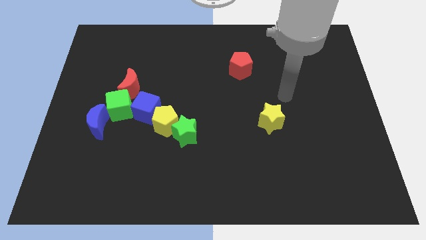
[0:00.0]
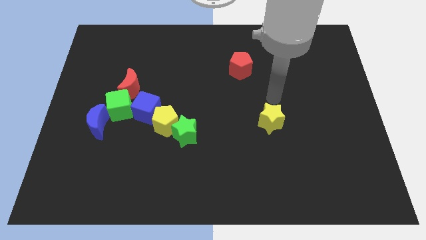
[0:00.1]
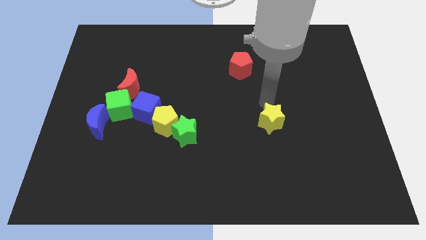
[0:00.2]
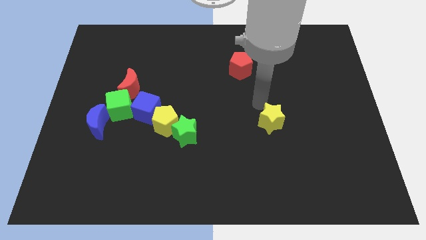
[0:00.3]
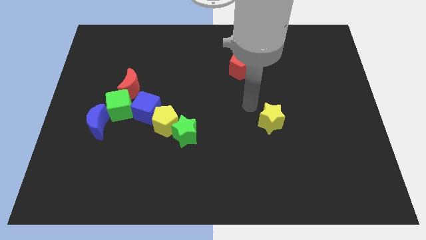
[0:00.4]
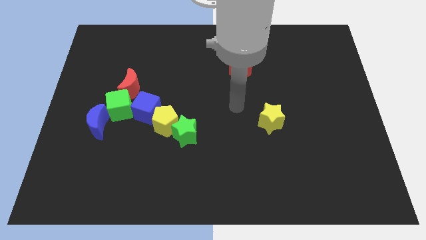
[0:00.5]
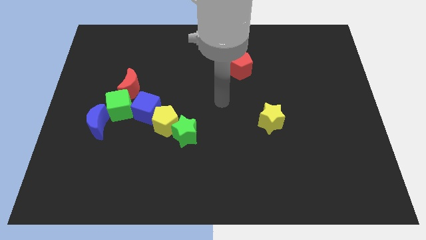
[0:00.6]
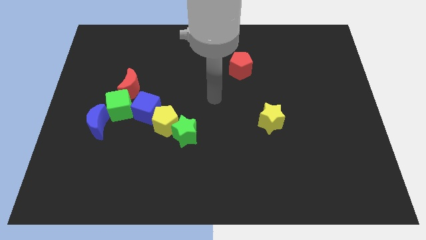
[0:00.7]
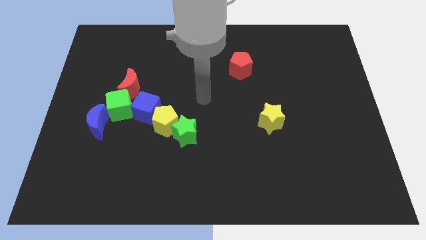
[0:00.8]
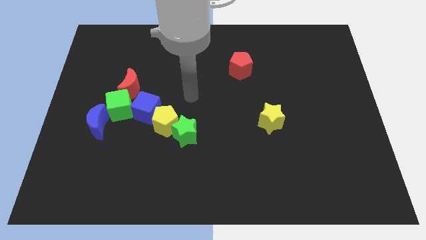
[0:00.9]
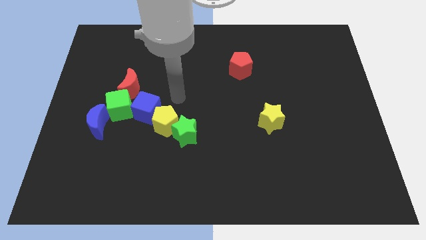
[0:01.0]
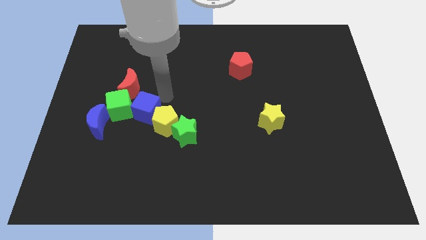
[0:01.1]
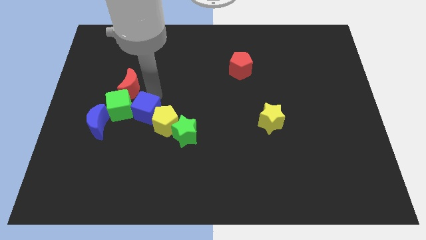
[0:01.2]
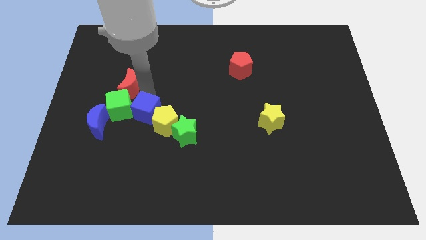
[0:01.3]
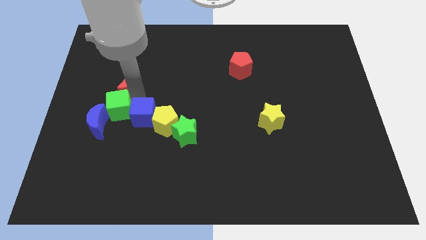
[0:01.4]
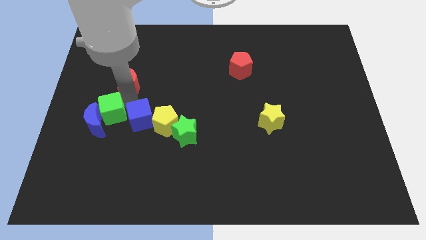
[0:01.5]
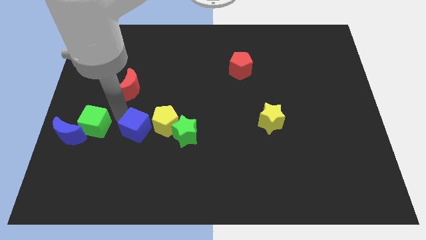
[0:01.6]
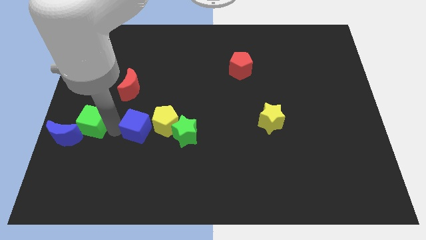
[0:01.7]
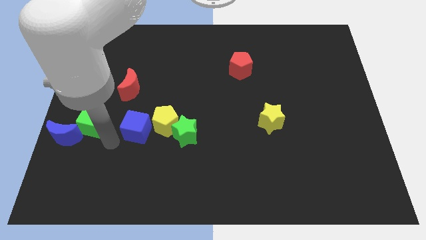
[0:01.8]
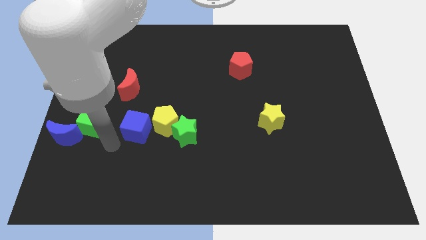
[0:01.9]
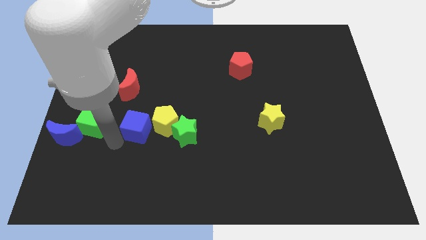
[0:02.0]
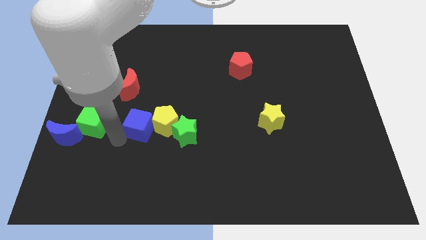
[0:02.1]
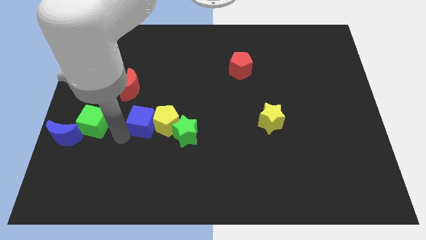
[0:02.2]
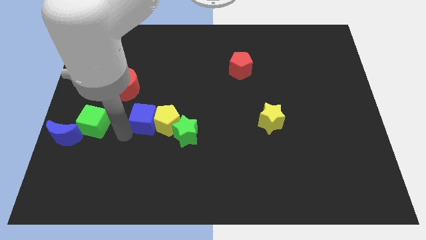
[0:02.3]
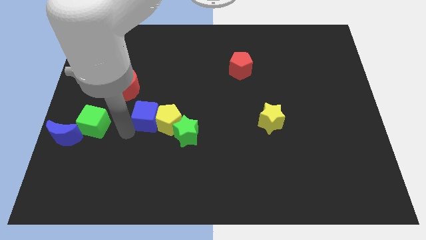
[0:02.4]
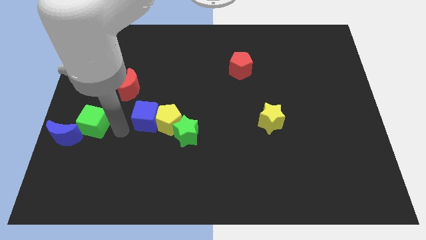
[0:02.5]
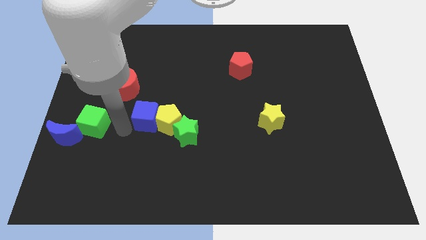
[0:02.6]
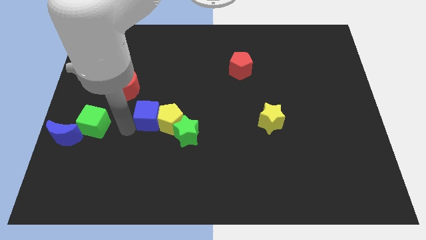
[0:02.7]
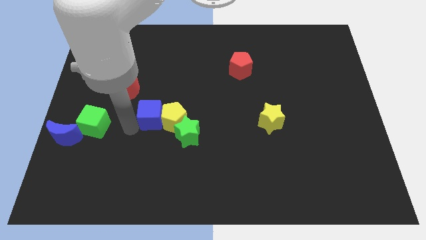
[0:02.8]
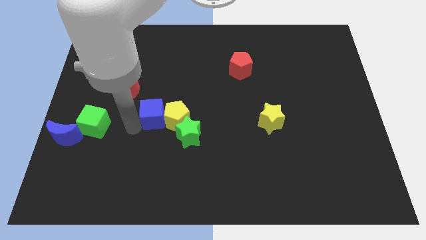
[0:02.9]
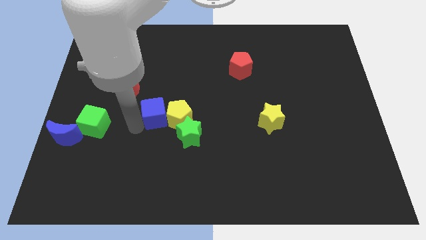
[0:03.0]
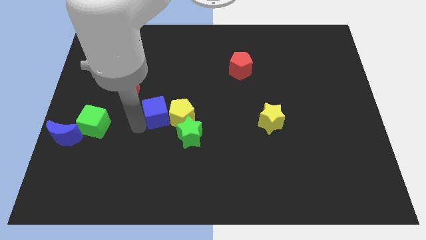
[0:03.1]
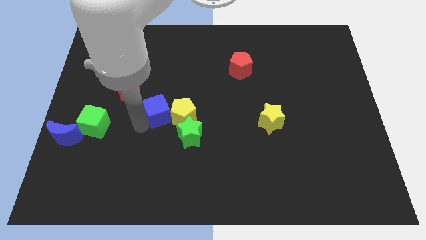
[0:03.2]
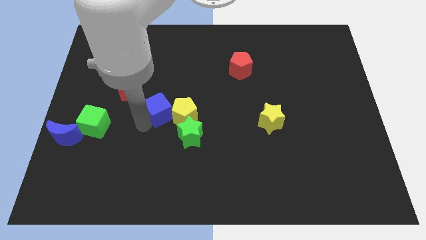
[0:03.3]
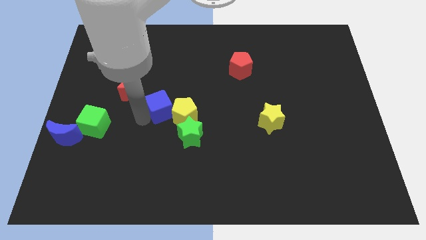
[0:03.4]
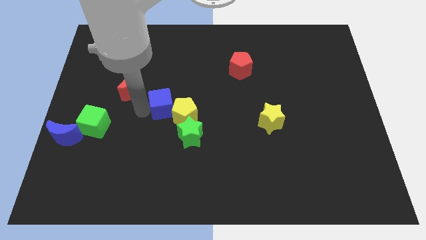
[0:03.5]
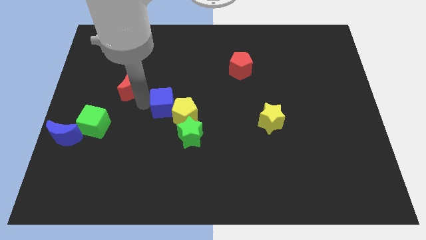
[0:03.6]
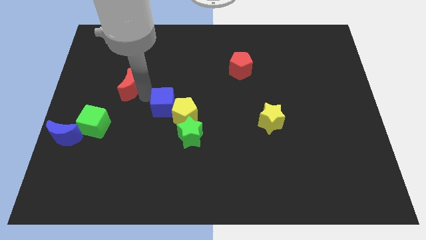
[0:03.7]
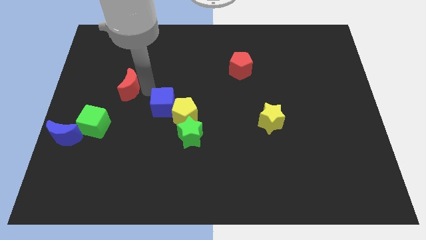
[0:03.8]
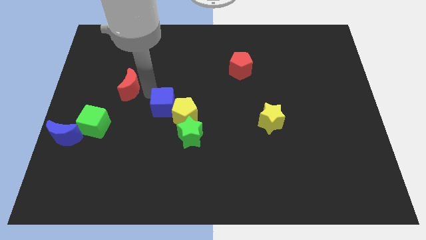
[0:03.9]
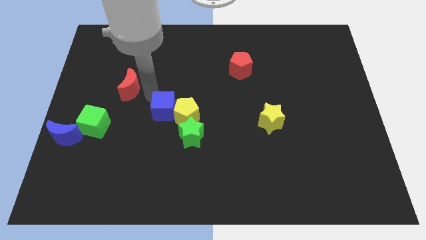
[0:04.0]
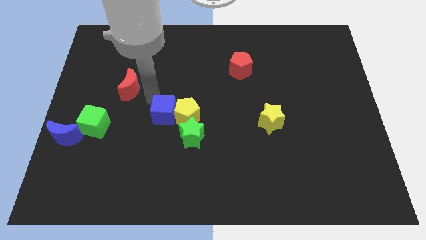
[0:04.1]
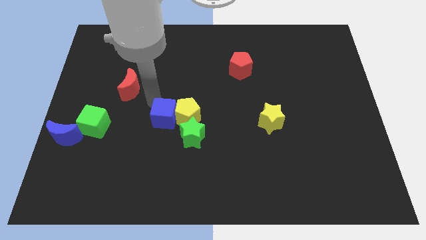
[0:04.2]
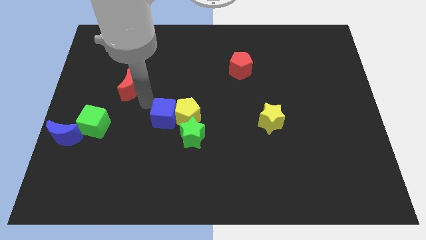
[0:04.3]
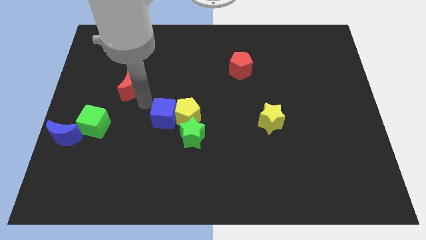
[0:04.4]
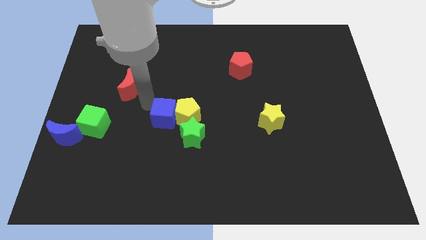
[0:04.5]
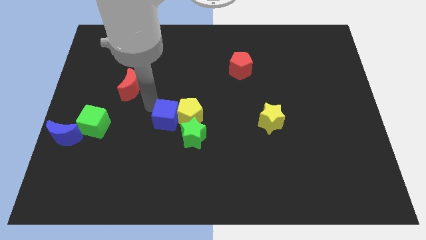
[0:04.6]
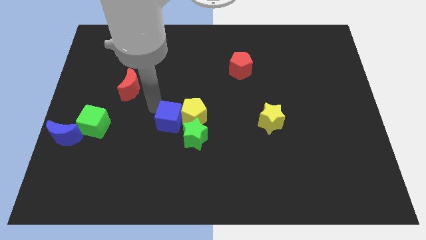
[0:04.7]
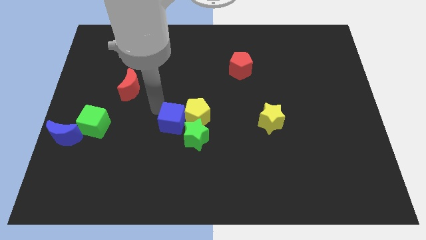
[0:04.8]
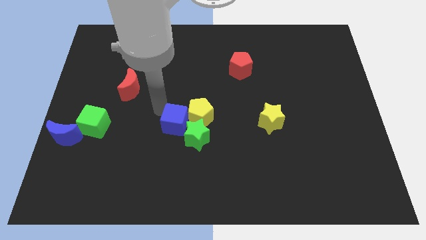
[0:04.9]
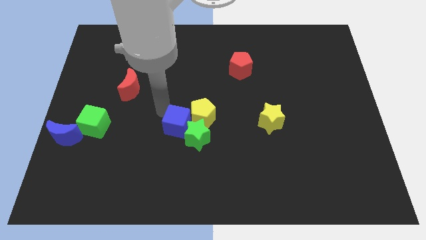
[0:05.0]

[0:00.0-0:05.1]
slide the blue cube to the green star

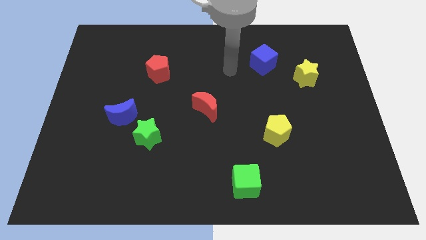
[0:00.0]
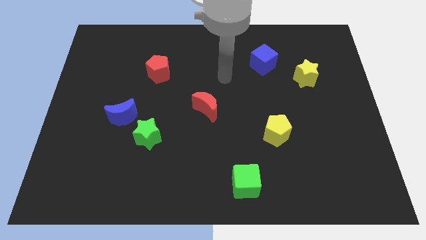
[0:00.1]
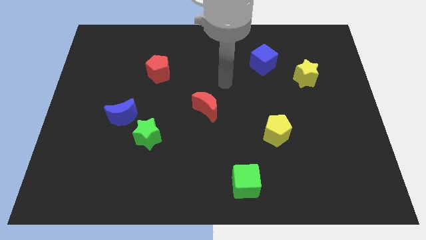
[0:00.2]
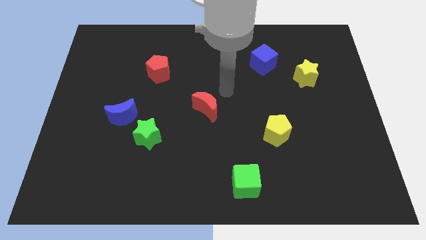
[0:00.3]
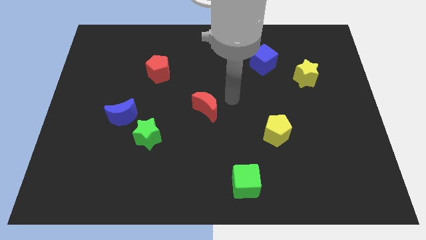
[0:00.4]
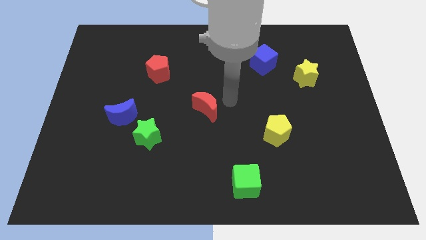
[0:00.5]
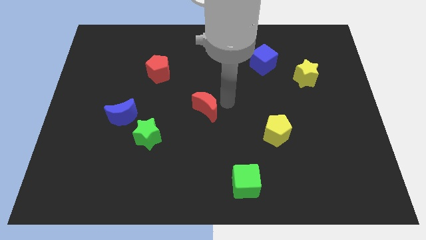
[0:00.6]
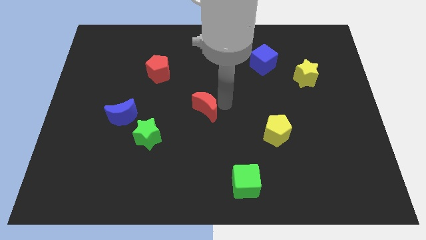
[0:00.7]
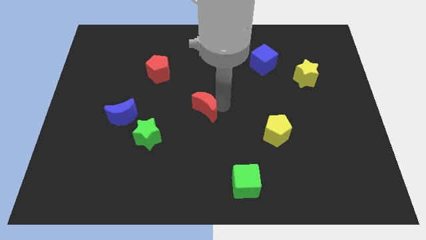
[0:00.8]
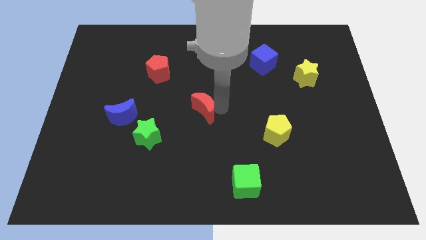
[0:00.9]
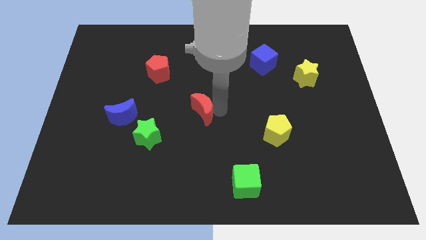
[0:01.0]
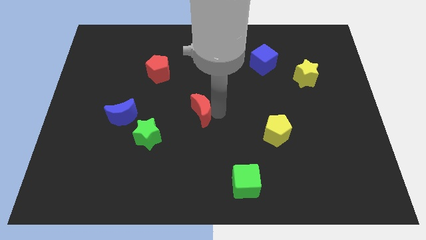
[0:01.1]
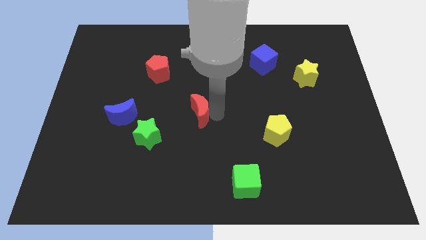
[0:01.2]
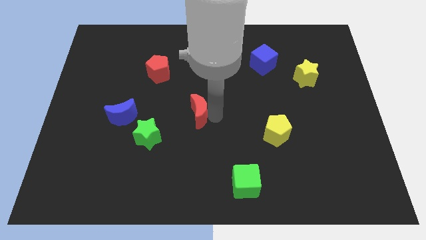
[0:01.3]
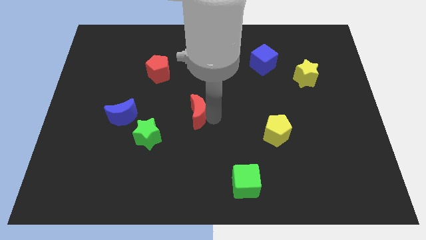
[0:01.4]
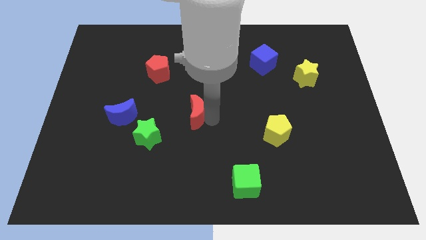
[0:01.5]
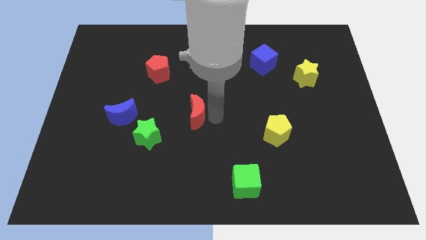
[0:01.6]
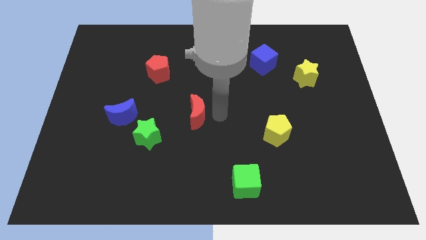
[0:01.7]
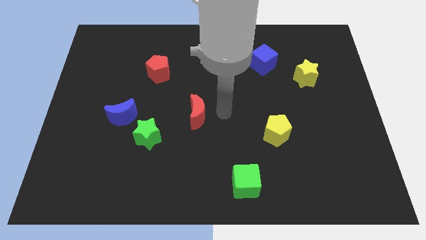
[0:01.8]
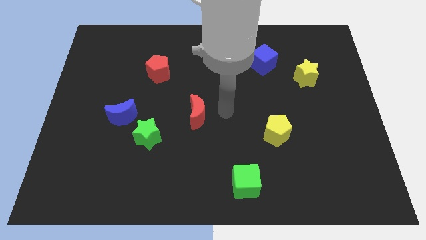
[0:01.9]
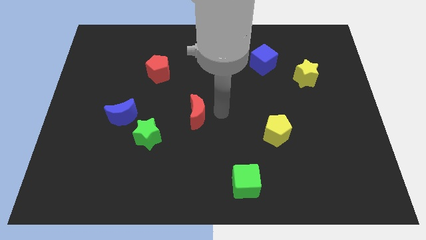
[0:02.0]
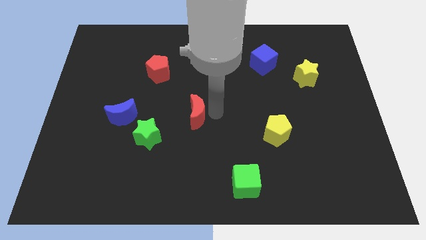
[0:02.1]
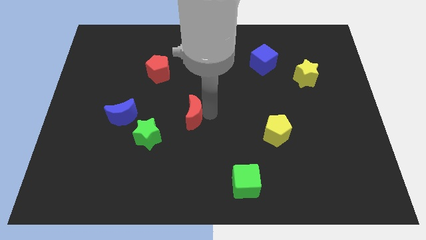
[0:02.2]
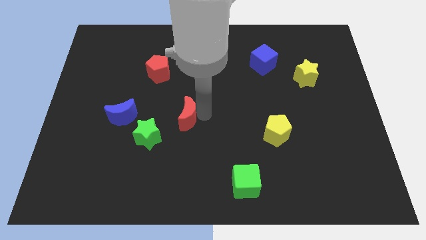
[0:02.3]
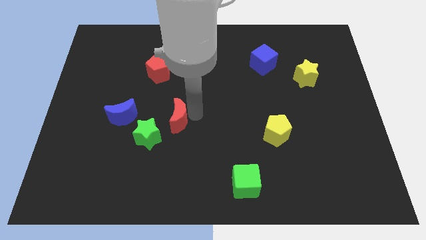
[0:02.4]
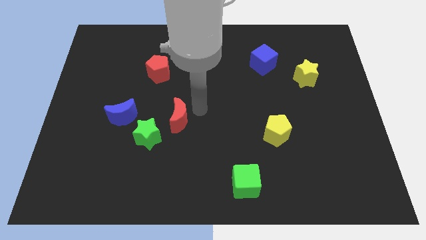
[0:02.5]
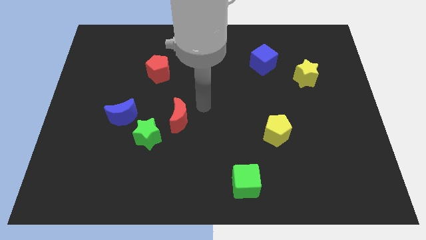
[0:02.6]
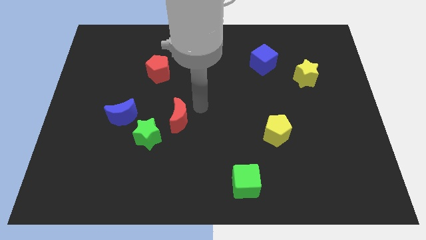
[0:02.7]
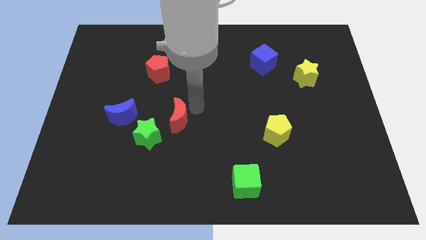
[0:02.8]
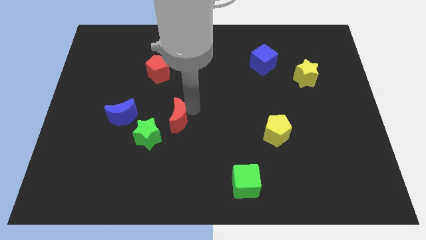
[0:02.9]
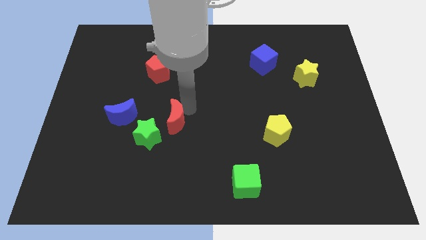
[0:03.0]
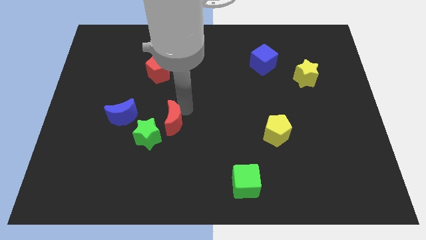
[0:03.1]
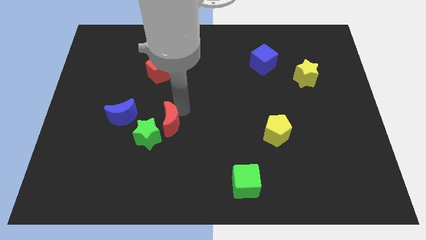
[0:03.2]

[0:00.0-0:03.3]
move the red moon to the green star
